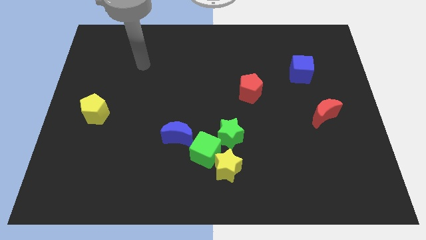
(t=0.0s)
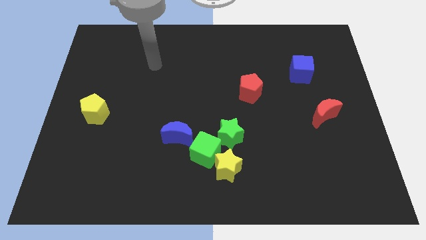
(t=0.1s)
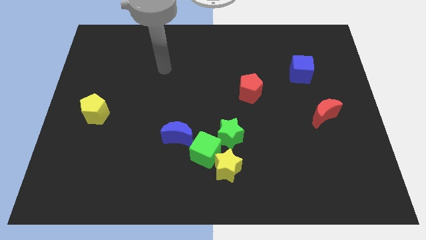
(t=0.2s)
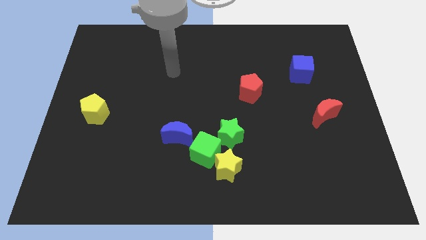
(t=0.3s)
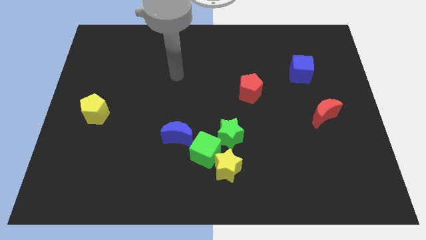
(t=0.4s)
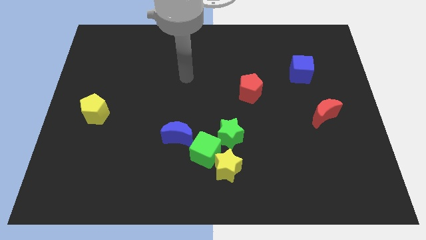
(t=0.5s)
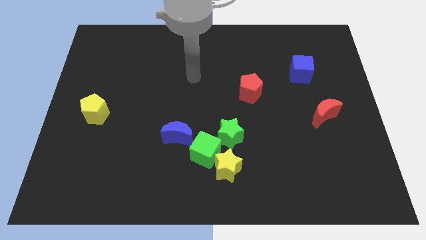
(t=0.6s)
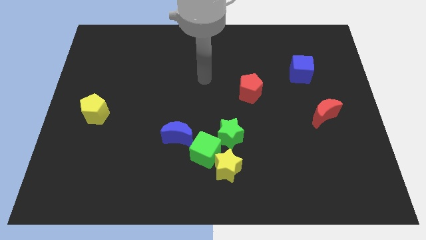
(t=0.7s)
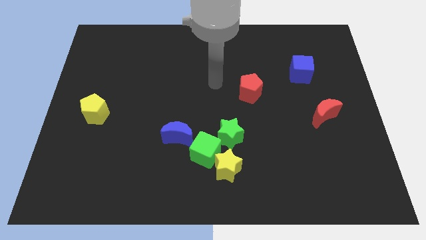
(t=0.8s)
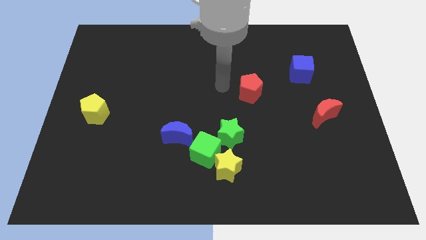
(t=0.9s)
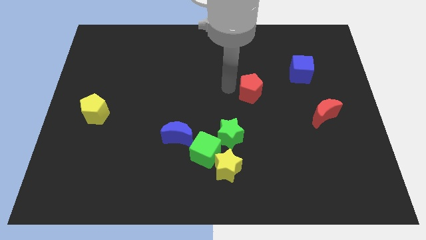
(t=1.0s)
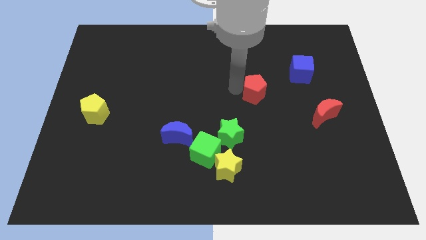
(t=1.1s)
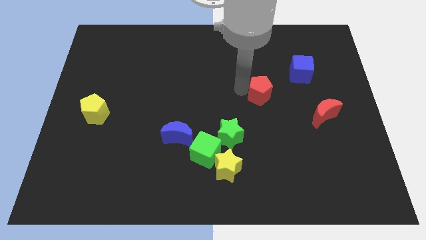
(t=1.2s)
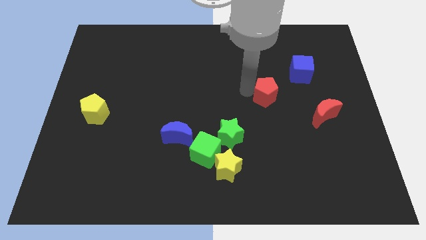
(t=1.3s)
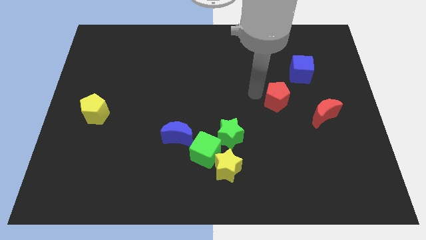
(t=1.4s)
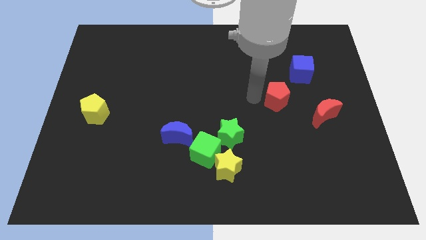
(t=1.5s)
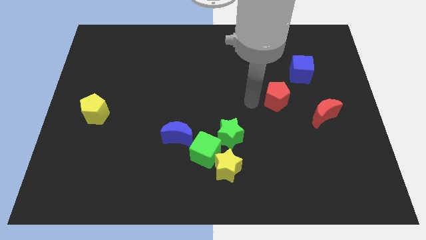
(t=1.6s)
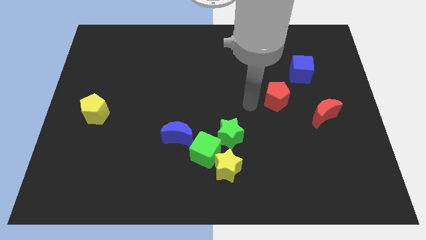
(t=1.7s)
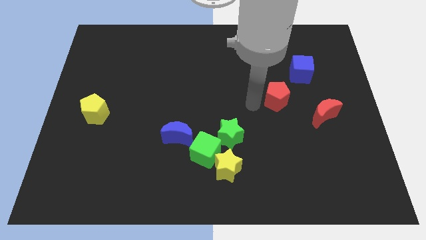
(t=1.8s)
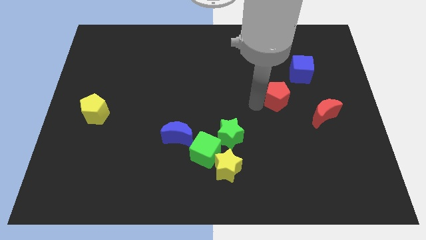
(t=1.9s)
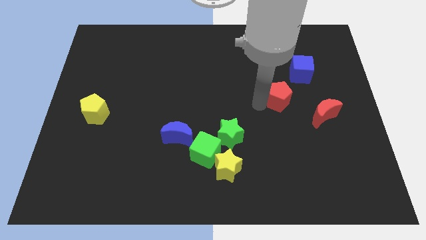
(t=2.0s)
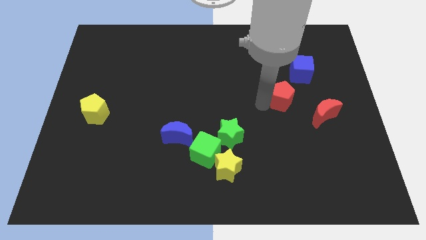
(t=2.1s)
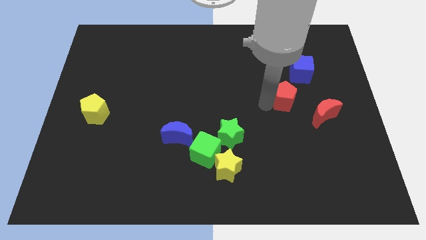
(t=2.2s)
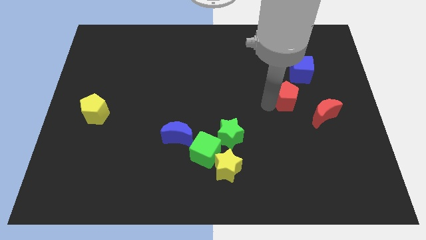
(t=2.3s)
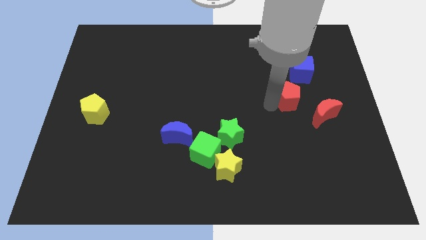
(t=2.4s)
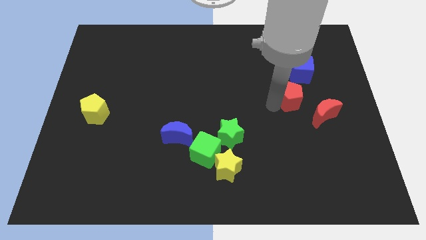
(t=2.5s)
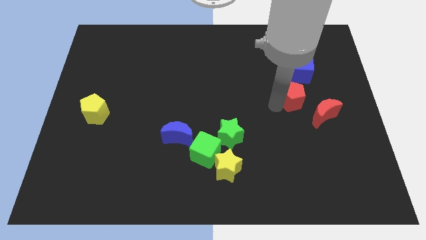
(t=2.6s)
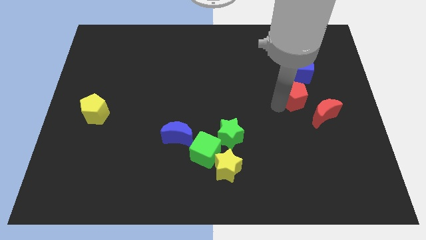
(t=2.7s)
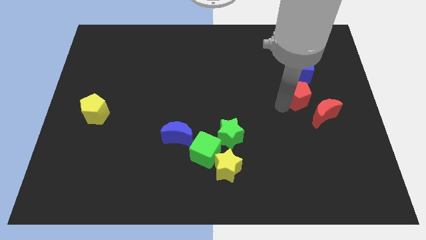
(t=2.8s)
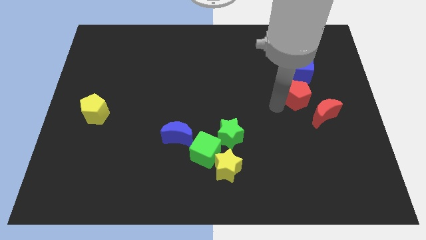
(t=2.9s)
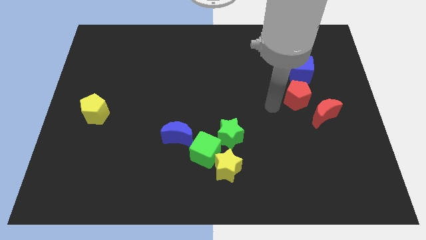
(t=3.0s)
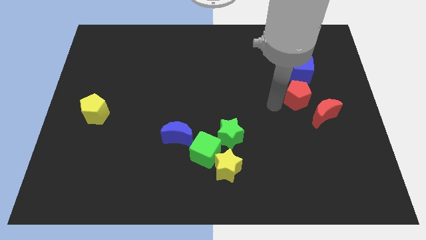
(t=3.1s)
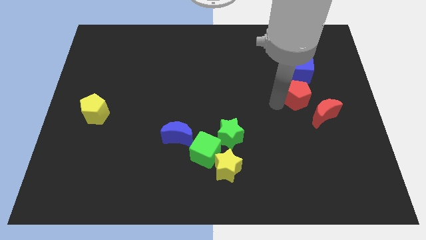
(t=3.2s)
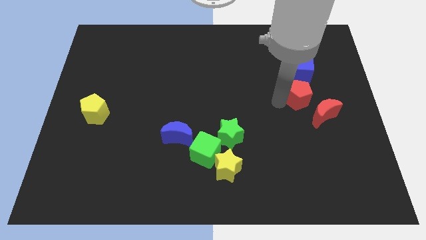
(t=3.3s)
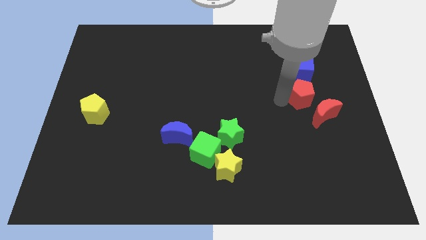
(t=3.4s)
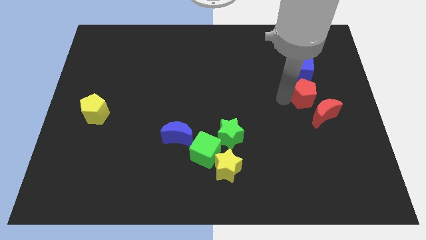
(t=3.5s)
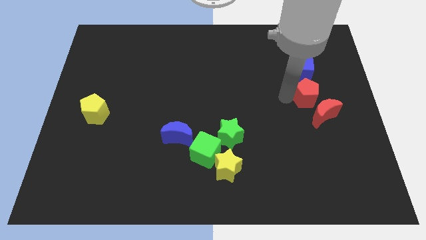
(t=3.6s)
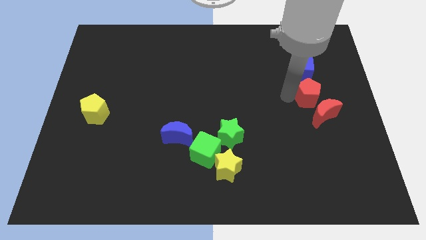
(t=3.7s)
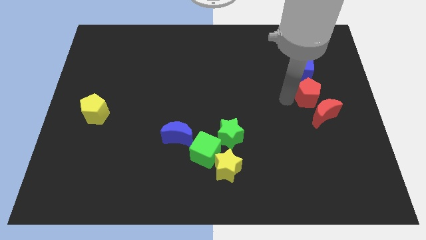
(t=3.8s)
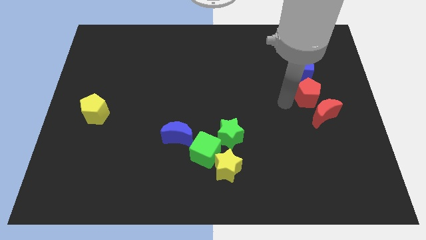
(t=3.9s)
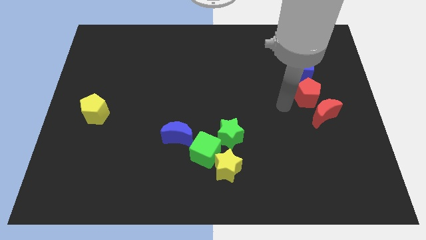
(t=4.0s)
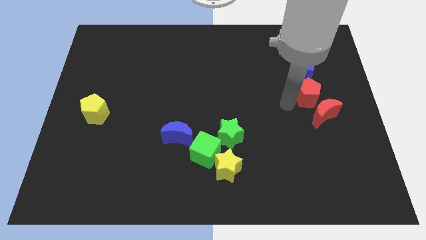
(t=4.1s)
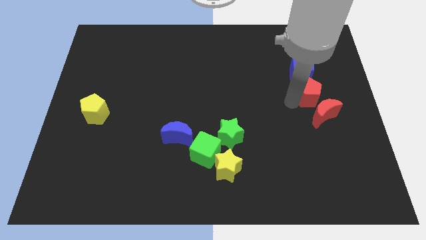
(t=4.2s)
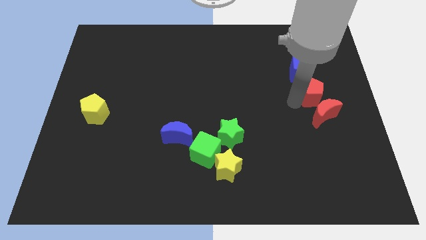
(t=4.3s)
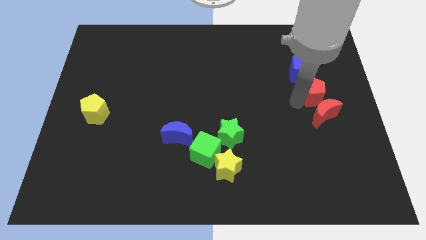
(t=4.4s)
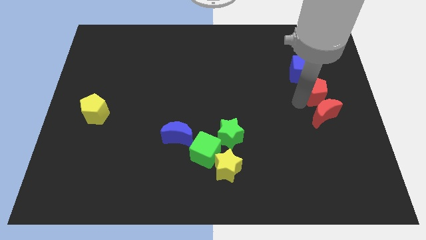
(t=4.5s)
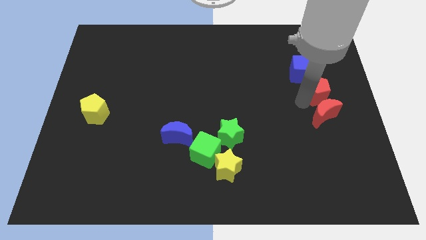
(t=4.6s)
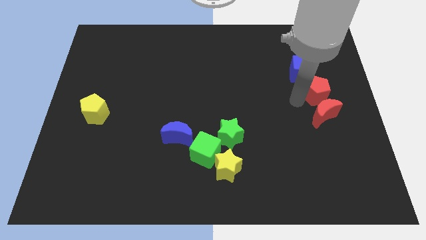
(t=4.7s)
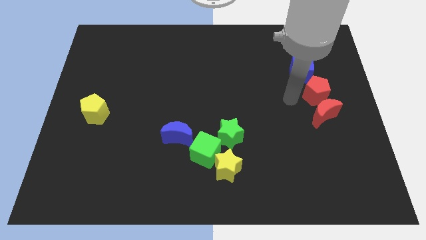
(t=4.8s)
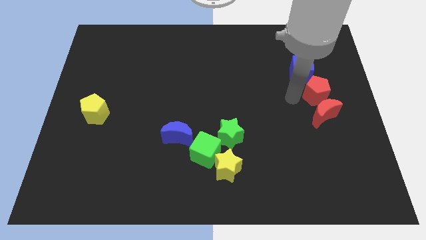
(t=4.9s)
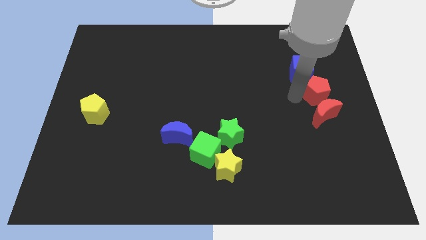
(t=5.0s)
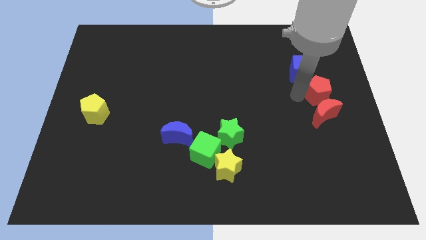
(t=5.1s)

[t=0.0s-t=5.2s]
put the red pentagon to the right side

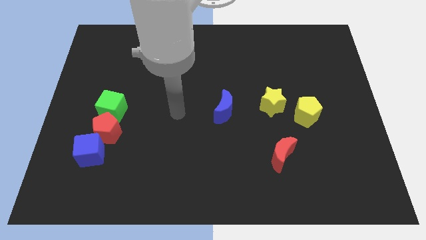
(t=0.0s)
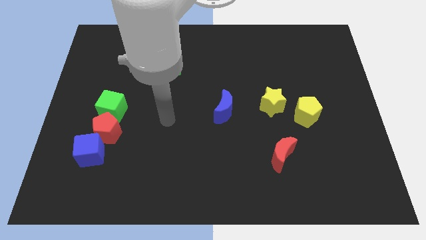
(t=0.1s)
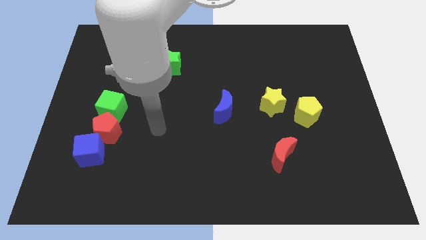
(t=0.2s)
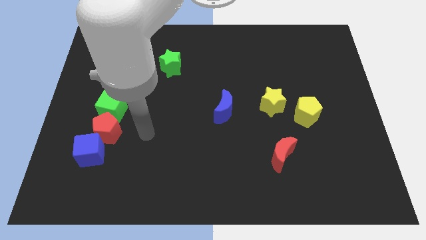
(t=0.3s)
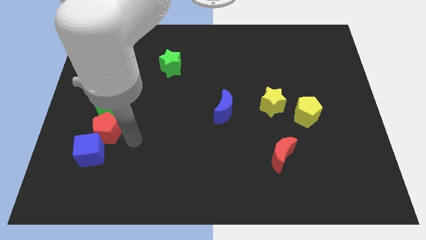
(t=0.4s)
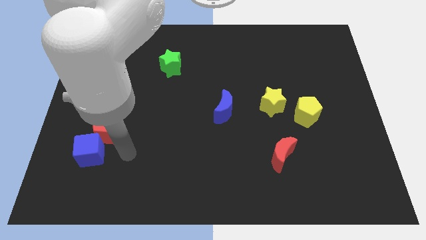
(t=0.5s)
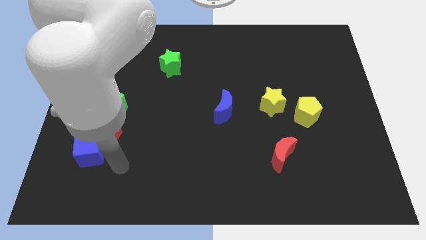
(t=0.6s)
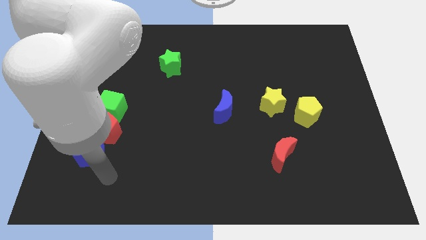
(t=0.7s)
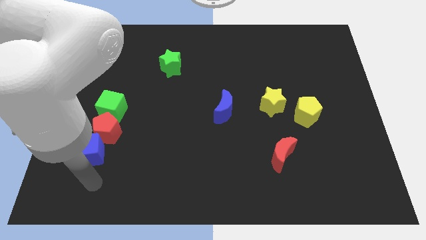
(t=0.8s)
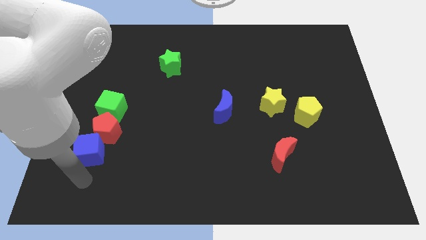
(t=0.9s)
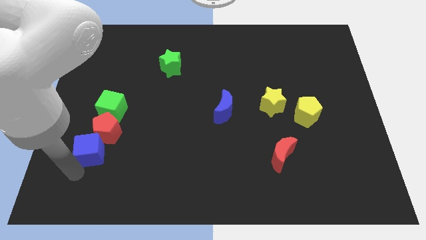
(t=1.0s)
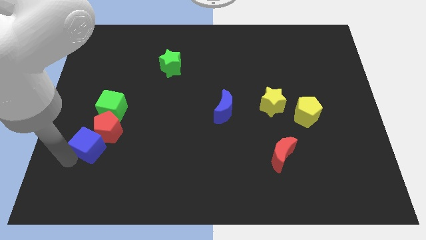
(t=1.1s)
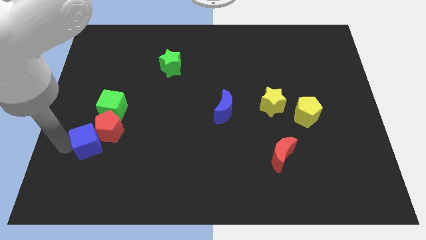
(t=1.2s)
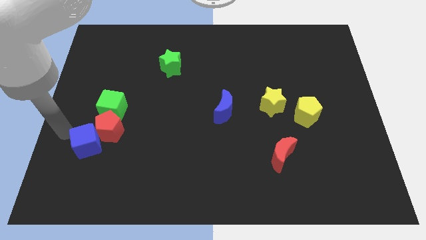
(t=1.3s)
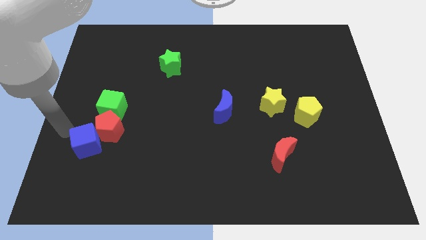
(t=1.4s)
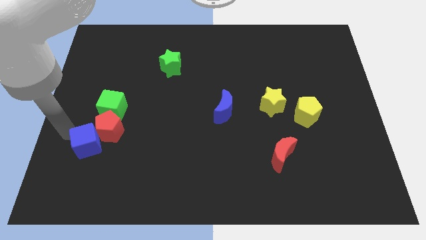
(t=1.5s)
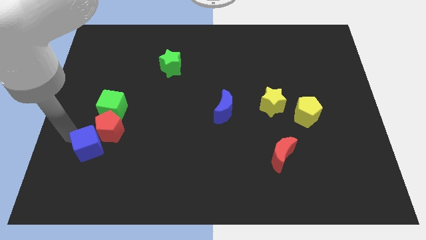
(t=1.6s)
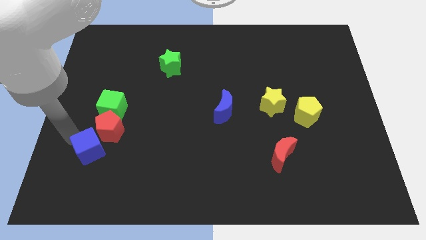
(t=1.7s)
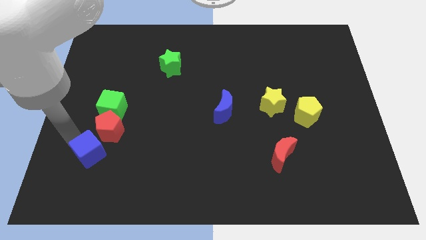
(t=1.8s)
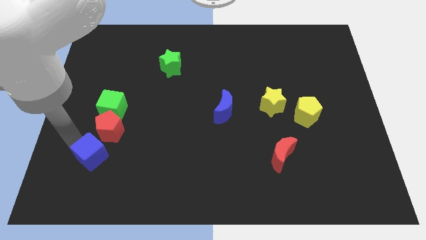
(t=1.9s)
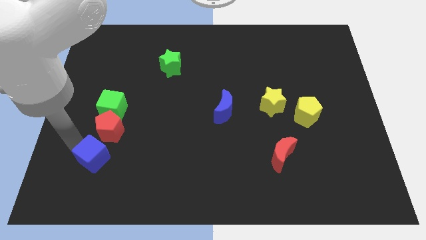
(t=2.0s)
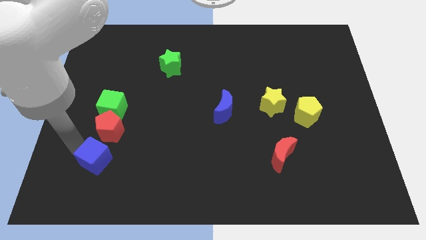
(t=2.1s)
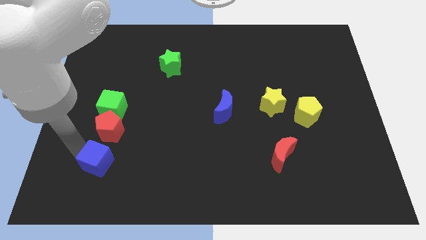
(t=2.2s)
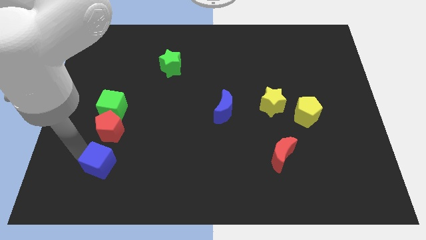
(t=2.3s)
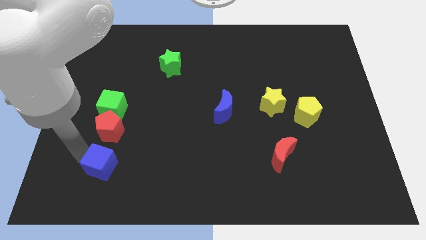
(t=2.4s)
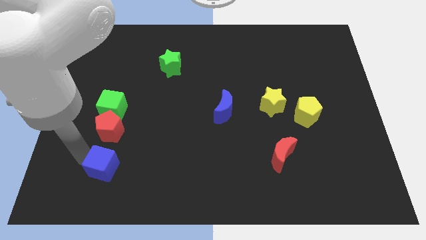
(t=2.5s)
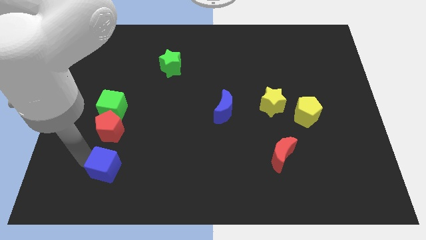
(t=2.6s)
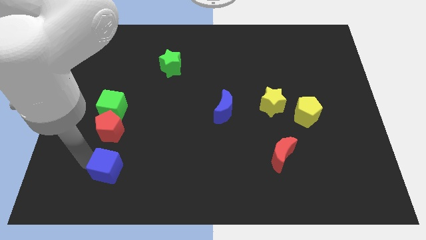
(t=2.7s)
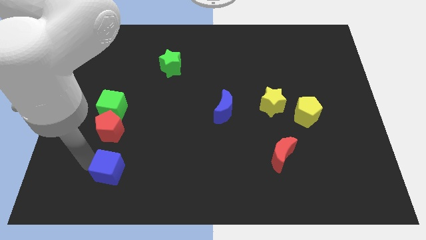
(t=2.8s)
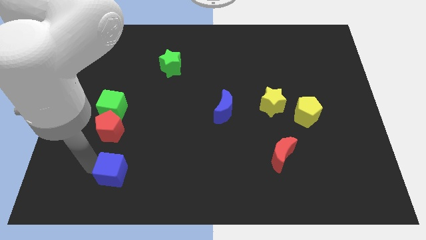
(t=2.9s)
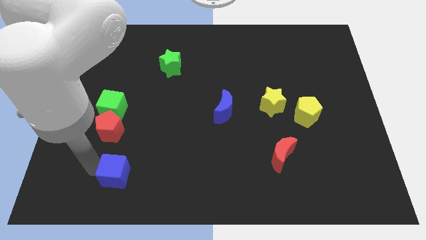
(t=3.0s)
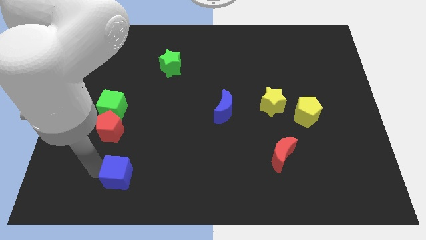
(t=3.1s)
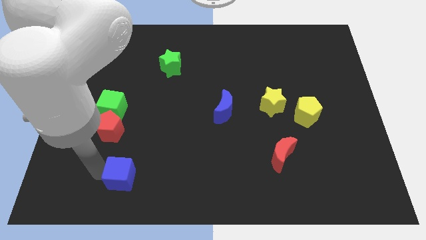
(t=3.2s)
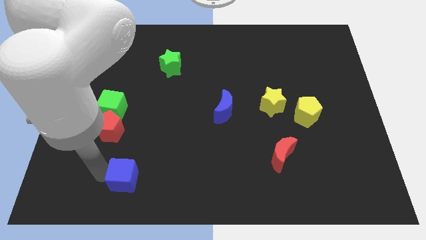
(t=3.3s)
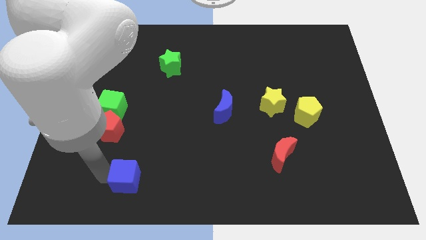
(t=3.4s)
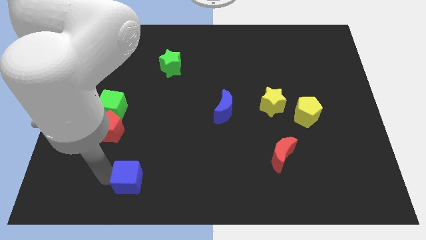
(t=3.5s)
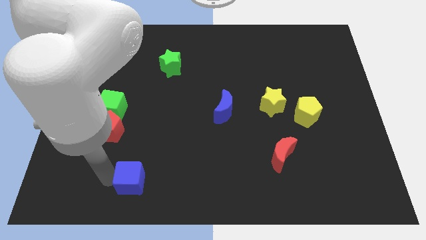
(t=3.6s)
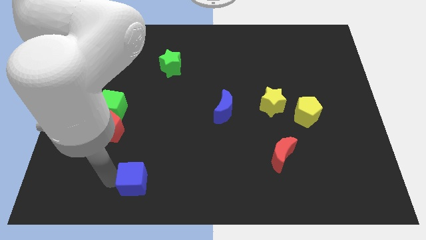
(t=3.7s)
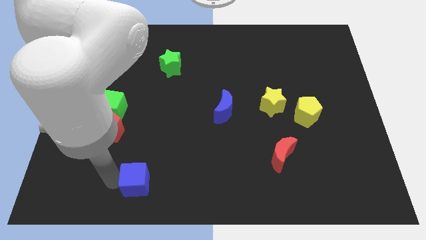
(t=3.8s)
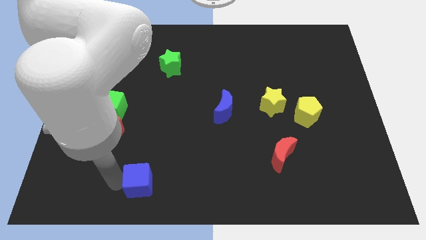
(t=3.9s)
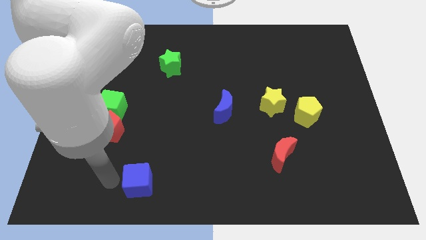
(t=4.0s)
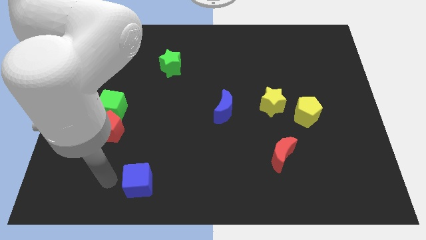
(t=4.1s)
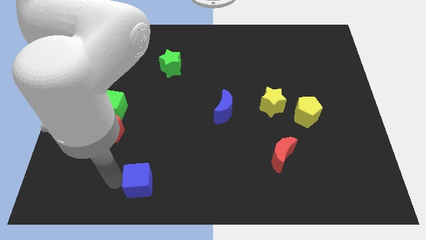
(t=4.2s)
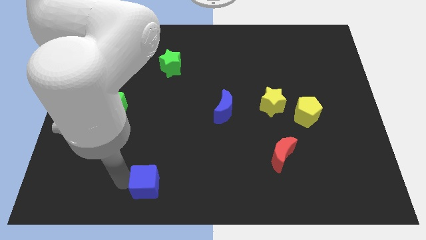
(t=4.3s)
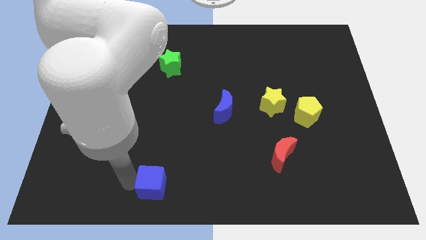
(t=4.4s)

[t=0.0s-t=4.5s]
slide the blue cube to the bottom side
